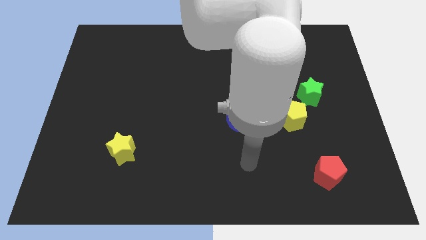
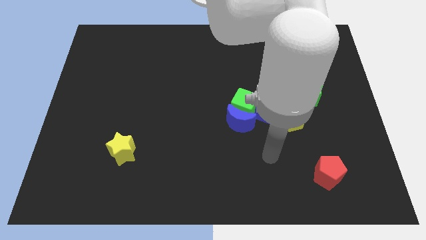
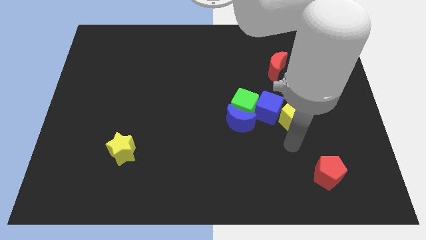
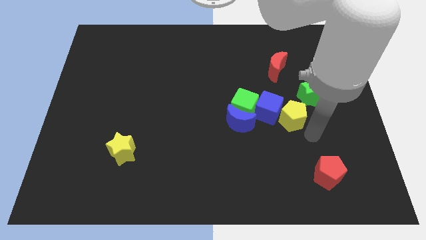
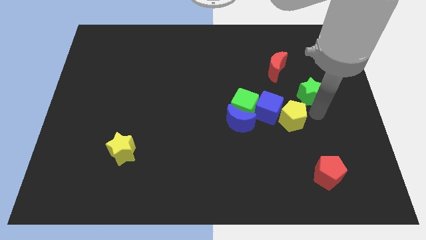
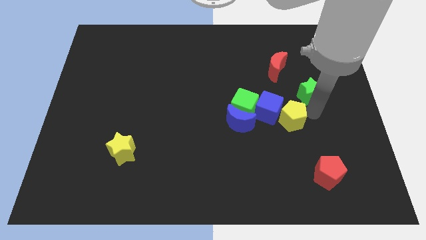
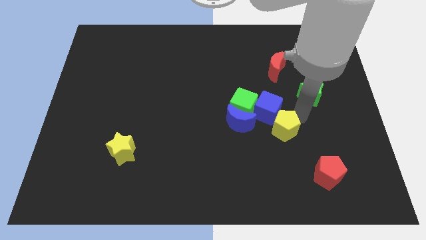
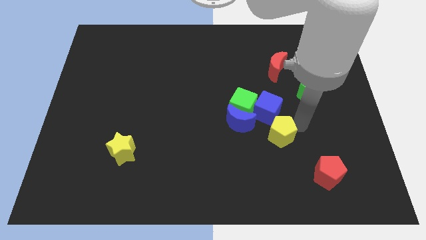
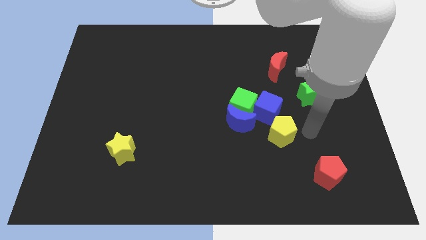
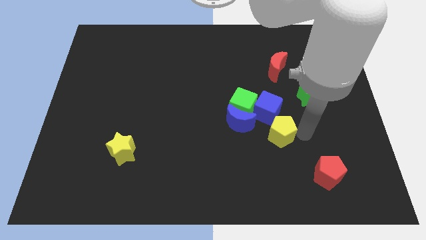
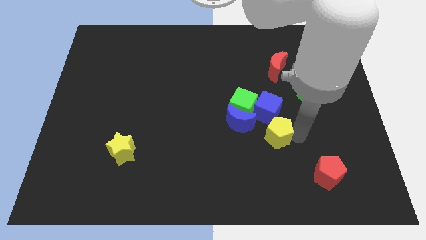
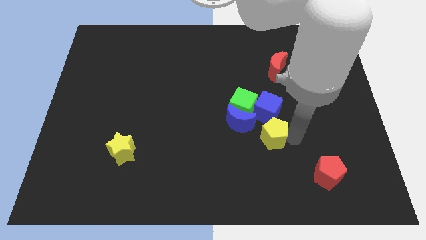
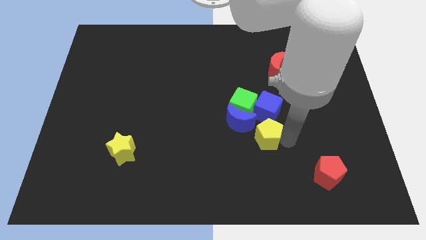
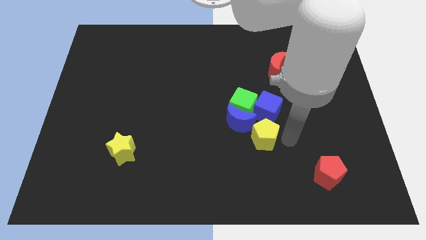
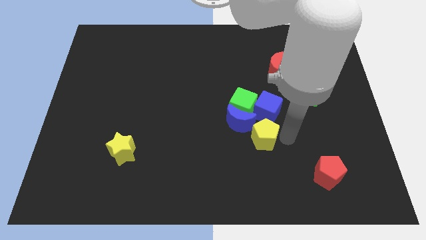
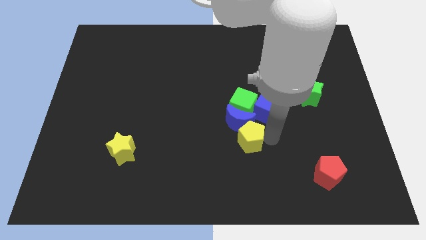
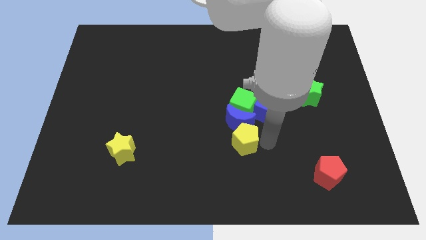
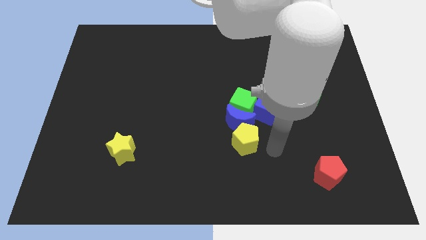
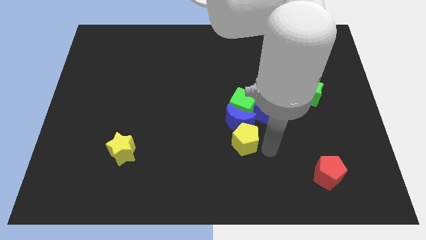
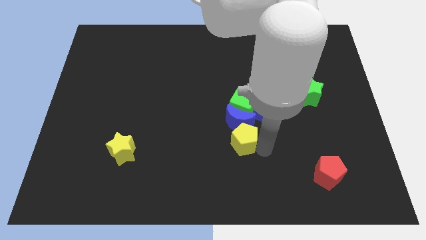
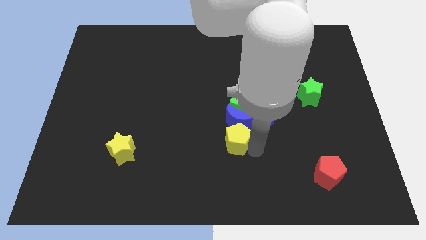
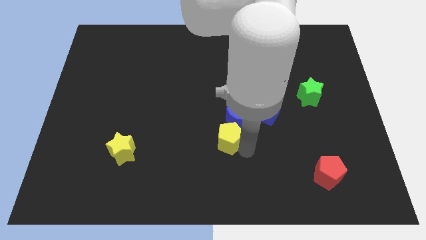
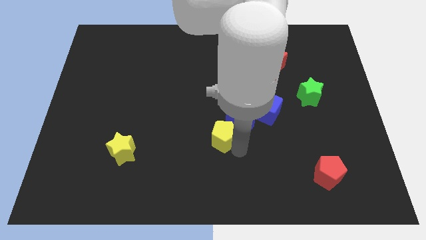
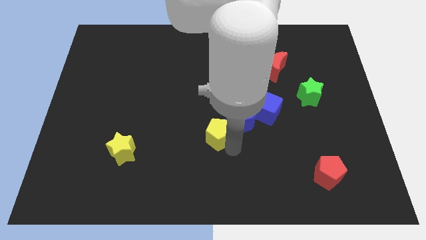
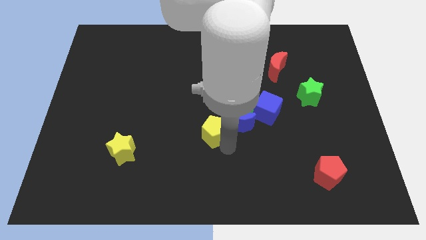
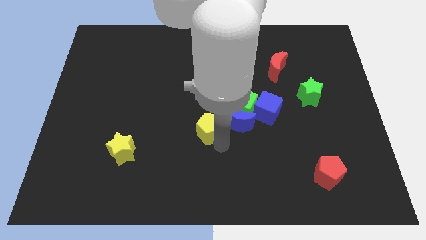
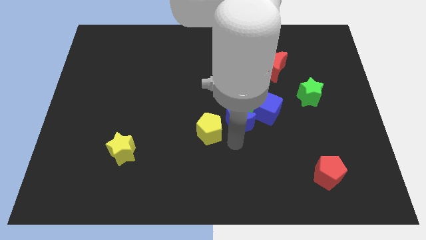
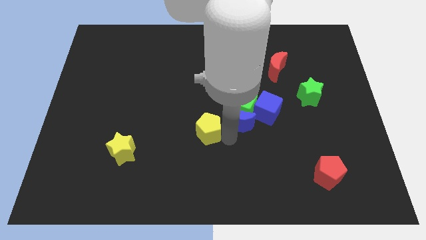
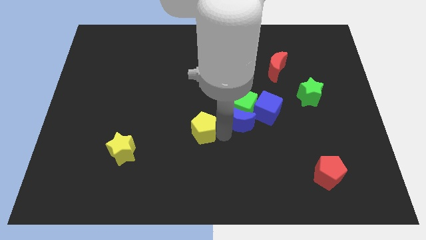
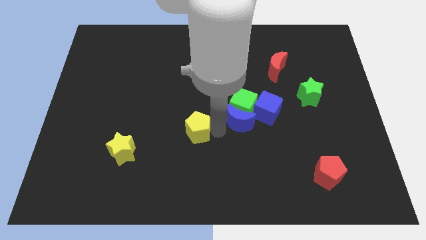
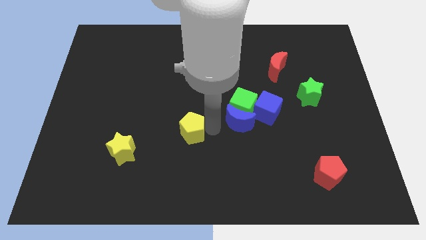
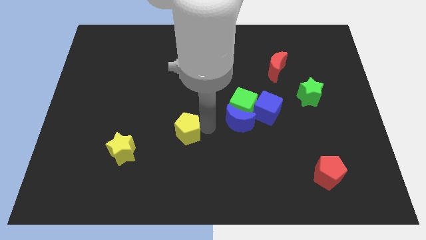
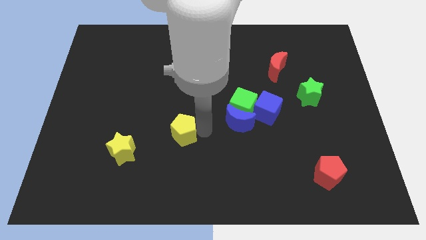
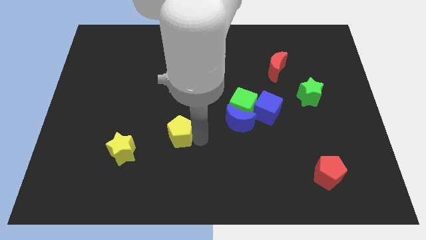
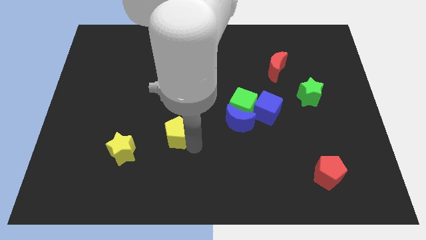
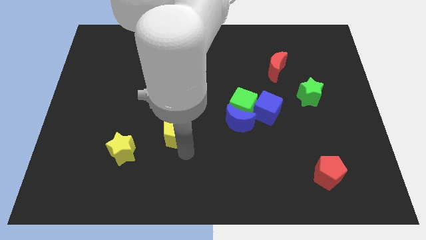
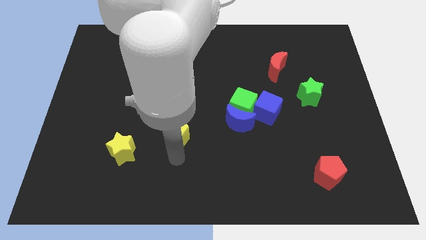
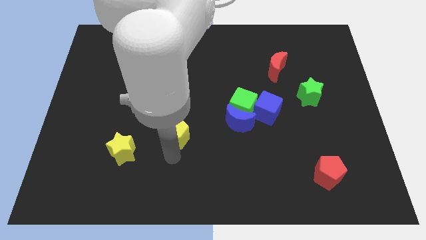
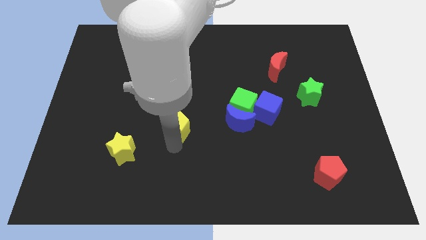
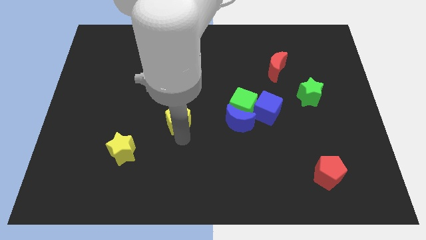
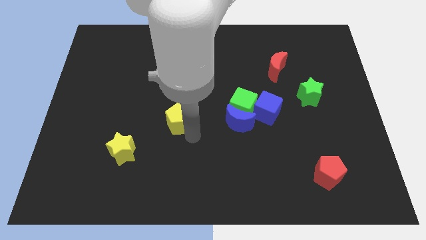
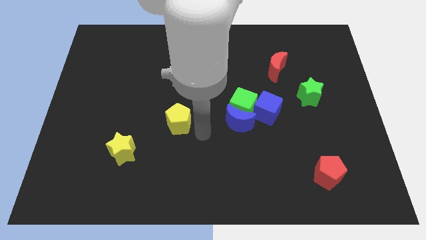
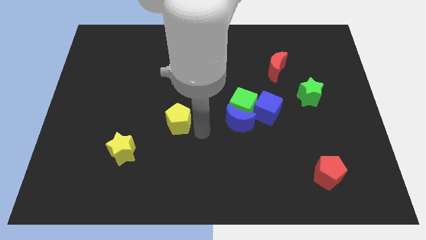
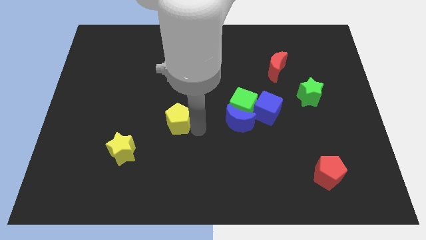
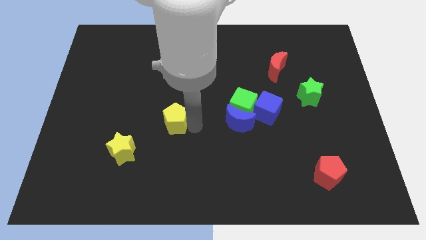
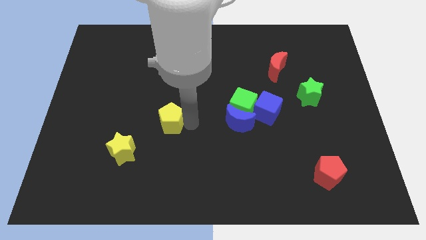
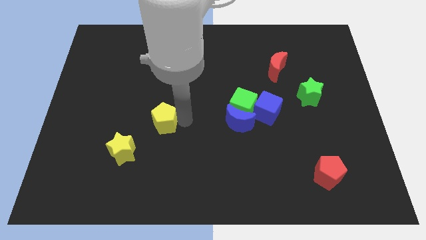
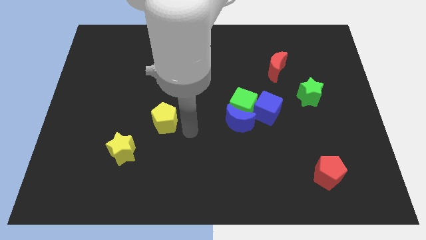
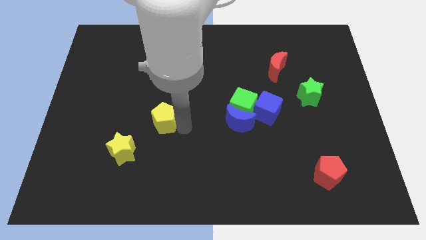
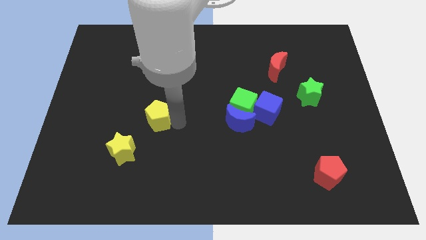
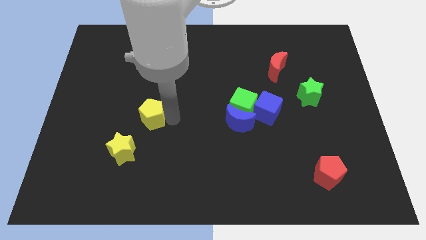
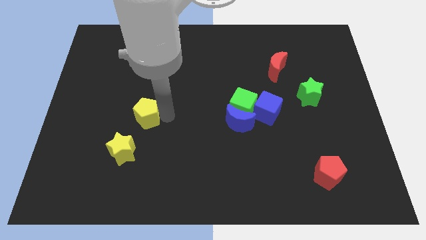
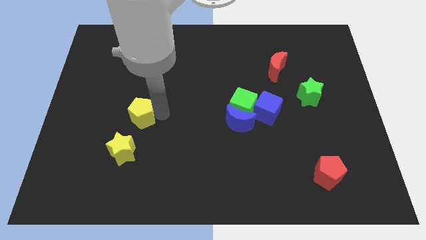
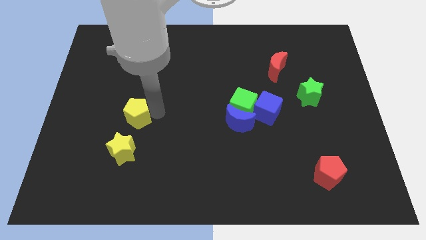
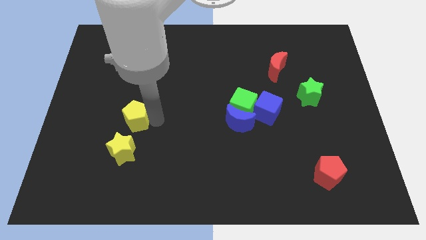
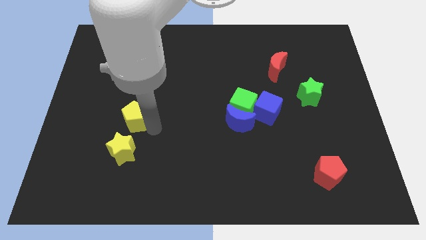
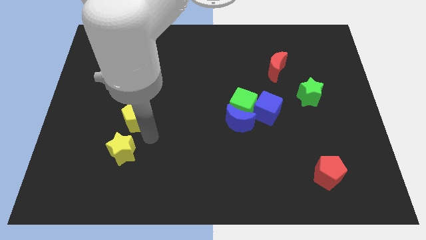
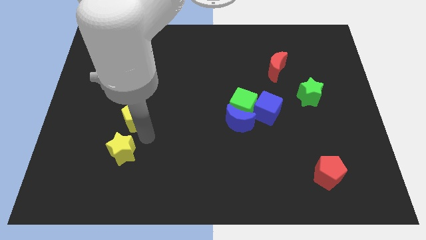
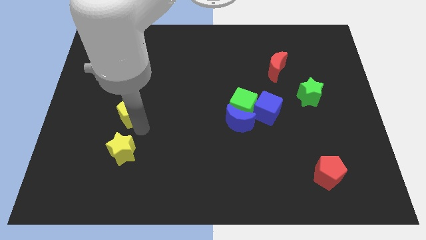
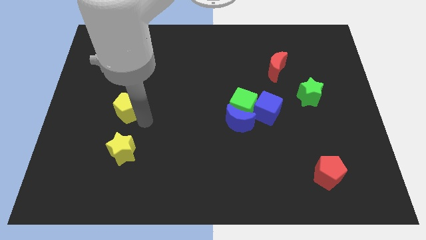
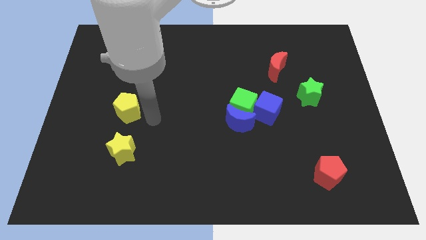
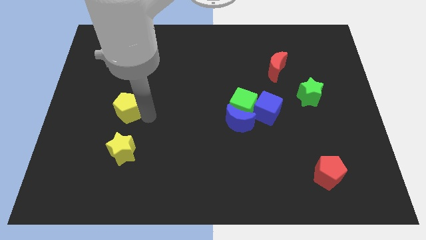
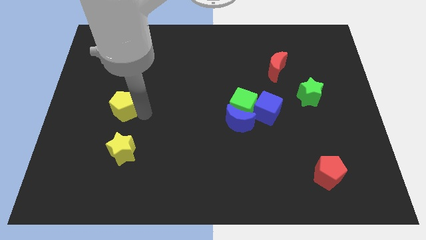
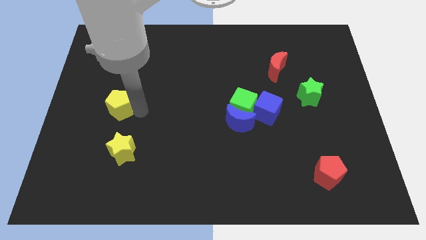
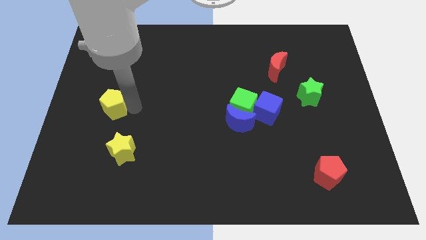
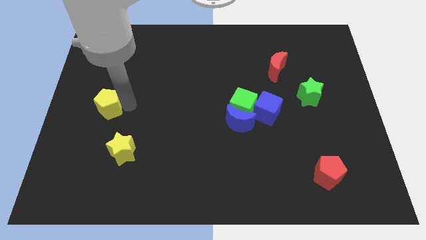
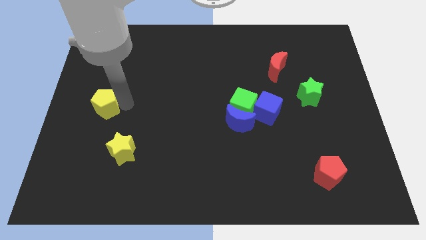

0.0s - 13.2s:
move the yellow pentagon to the left side

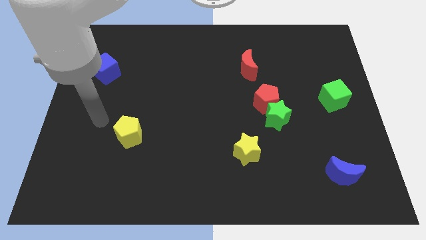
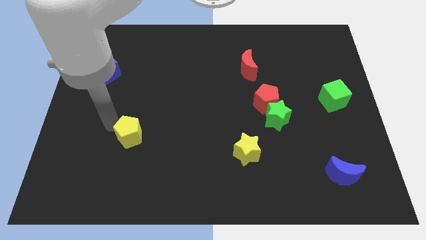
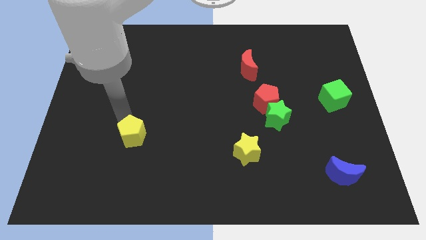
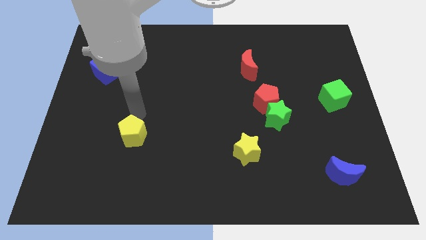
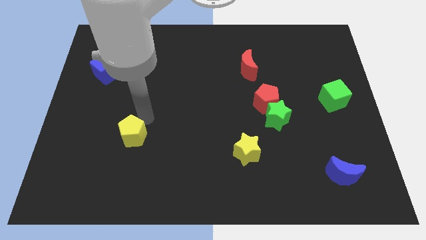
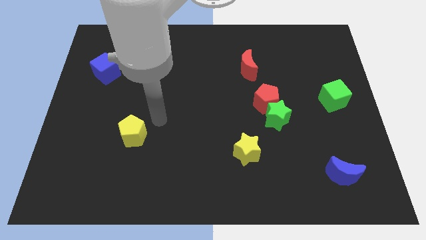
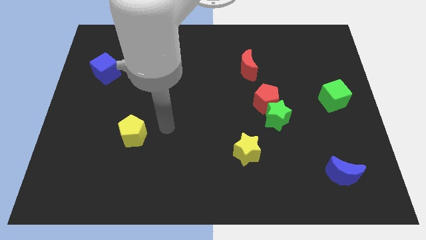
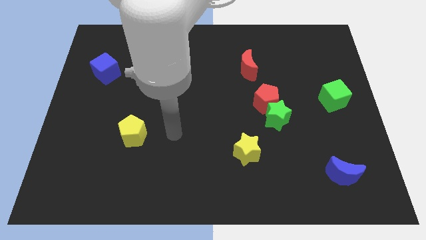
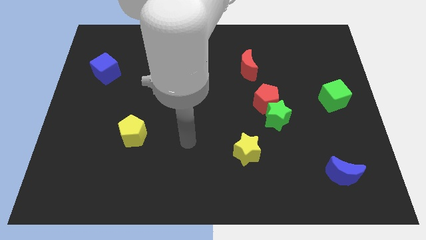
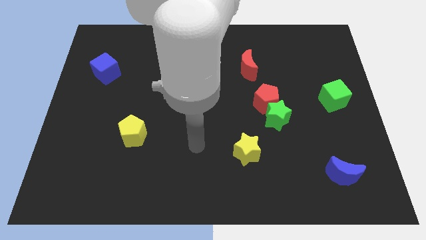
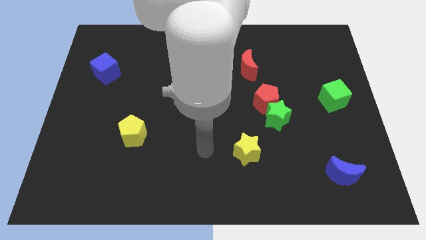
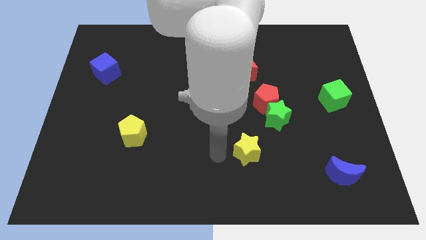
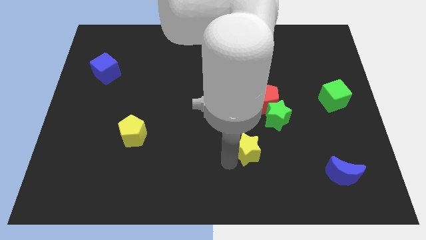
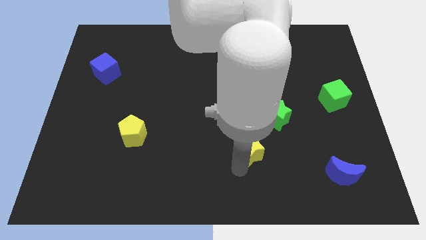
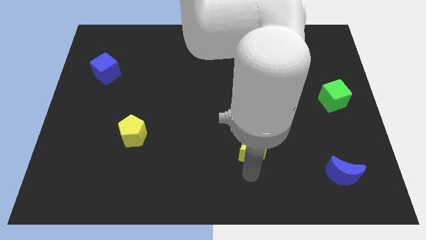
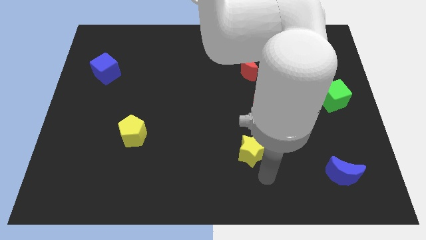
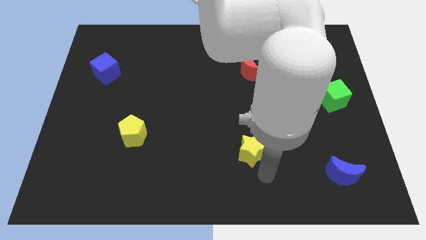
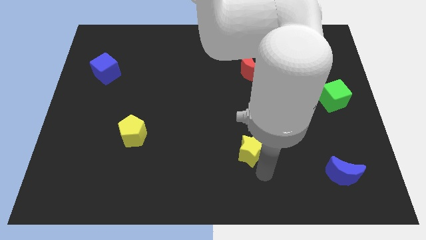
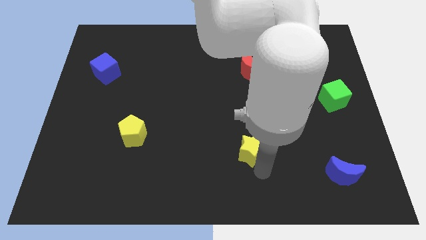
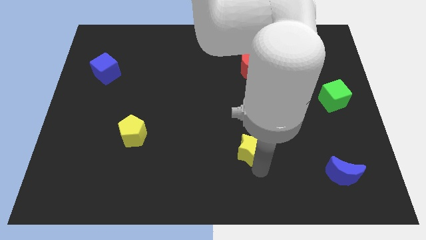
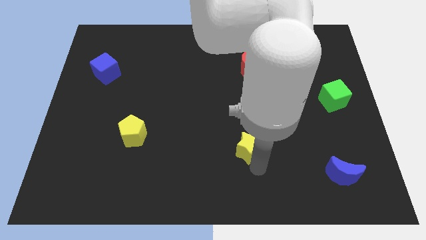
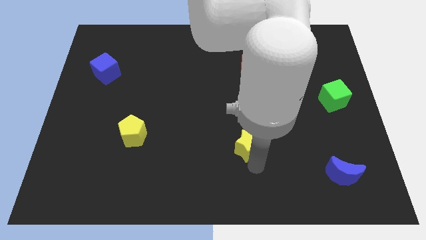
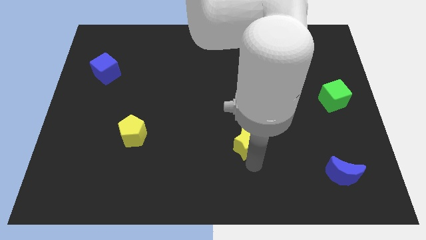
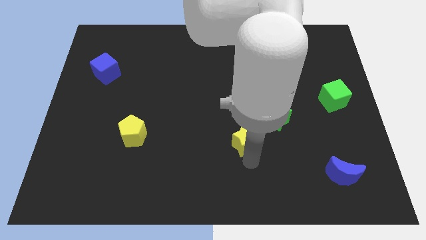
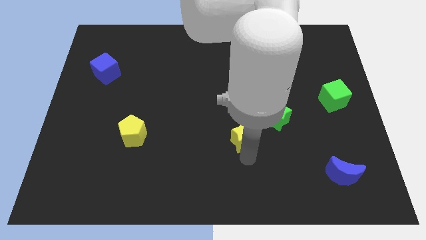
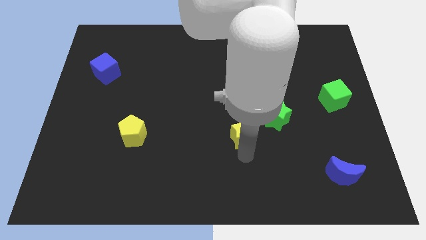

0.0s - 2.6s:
put the yellow star to the center of the board
